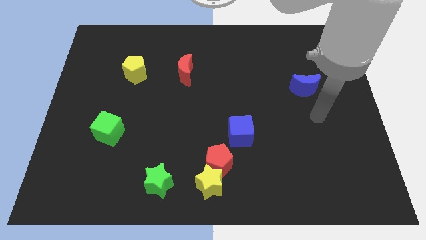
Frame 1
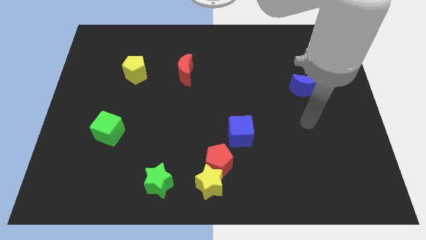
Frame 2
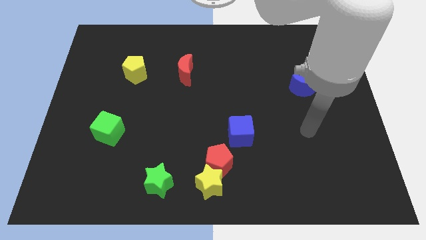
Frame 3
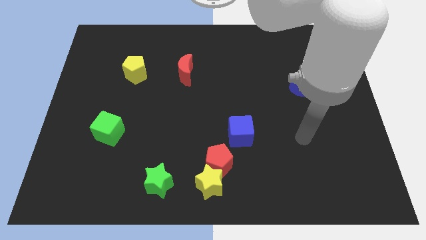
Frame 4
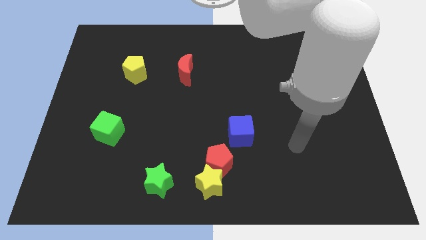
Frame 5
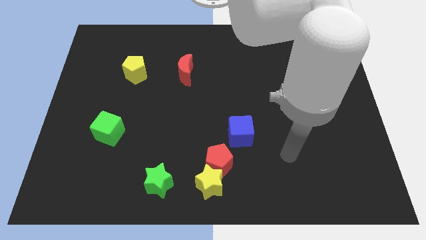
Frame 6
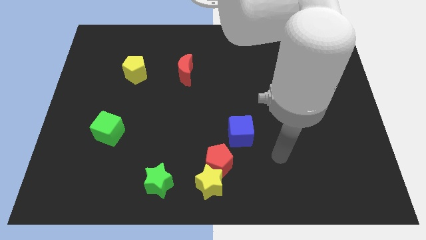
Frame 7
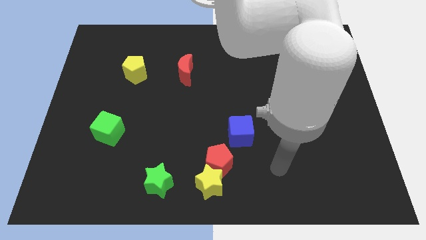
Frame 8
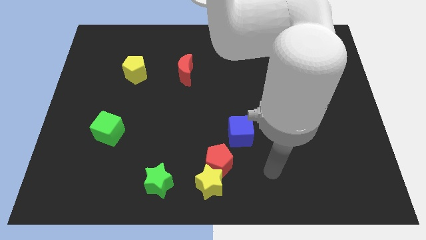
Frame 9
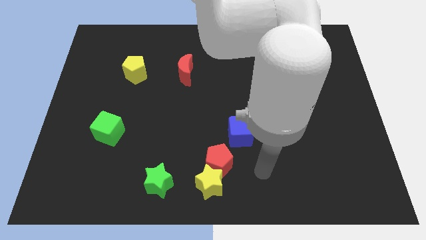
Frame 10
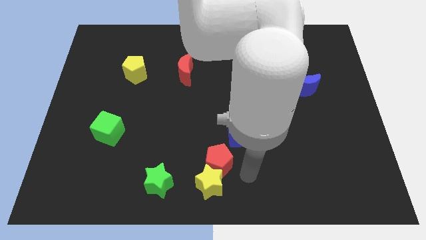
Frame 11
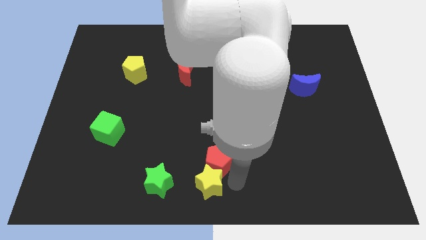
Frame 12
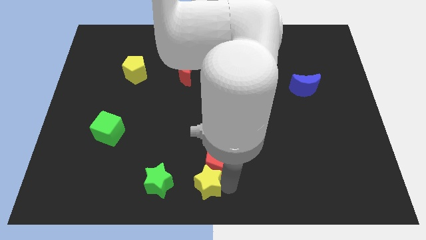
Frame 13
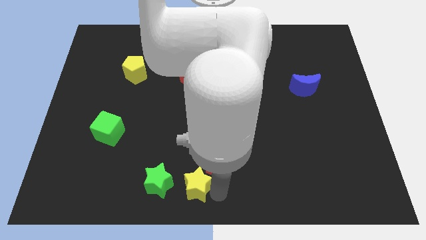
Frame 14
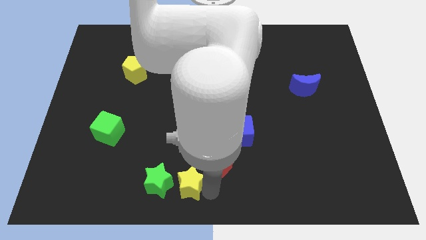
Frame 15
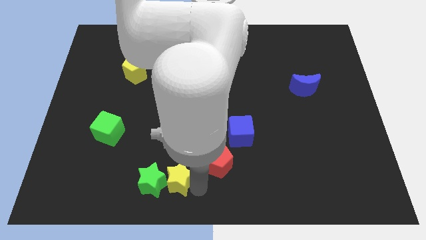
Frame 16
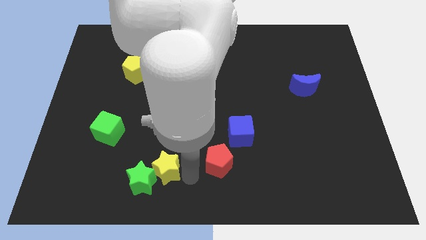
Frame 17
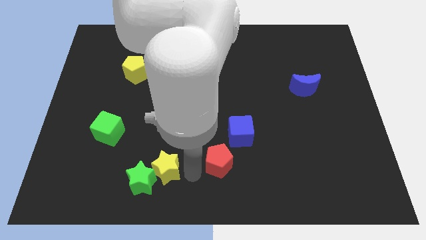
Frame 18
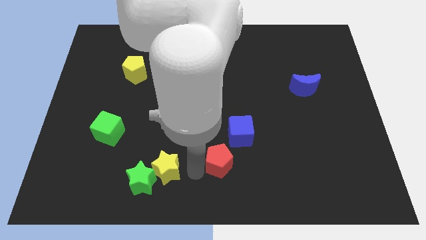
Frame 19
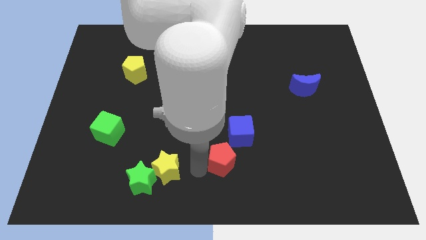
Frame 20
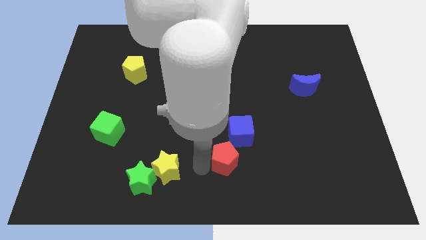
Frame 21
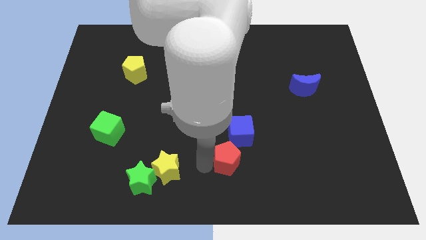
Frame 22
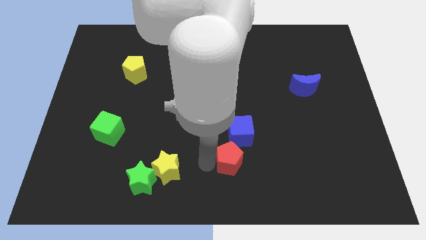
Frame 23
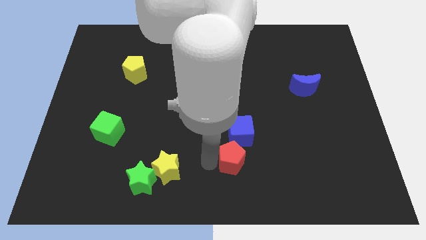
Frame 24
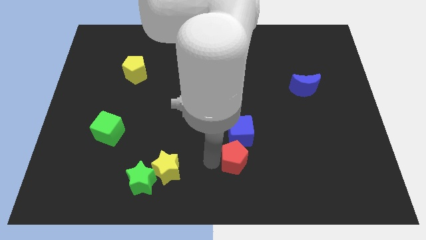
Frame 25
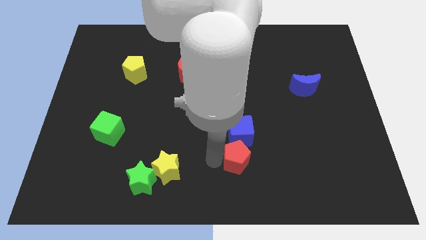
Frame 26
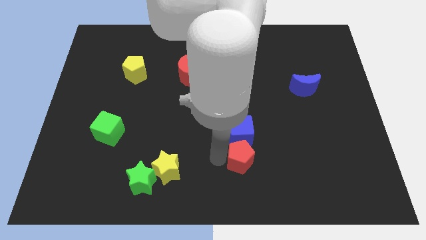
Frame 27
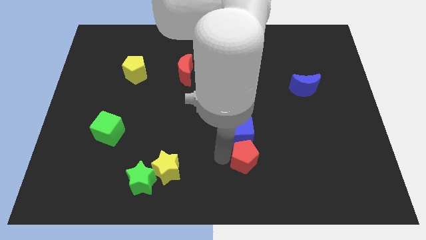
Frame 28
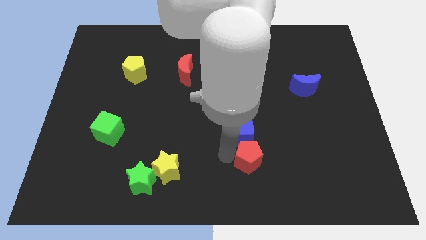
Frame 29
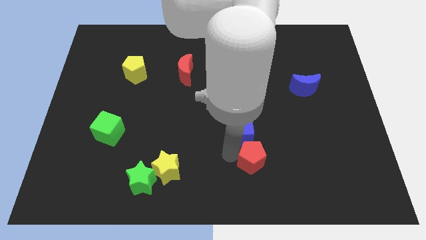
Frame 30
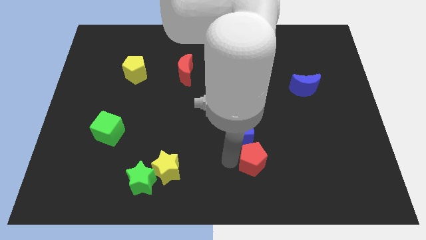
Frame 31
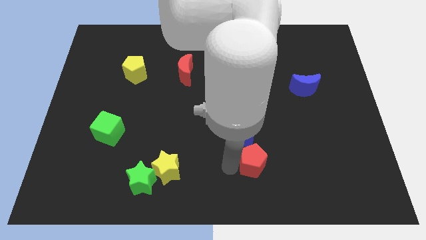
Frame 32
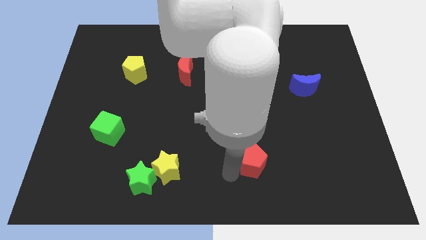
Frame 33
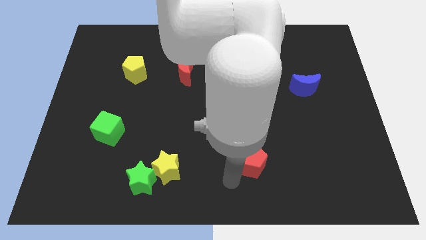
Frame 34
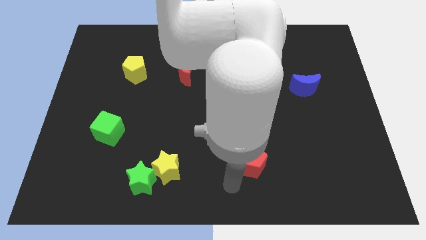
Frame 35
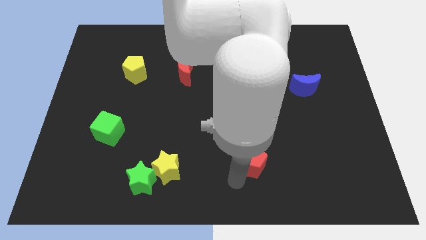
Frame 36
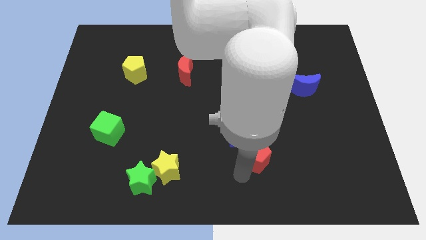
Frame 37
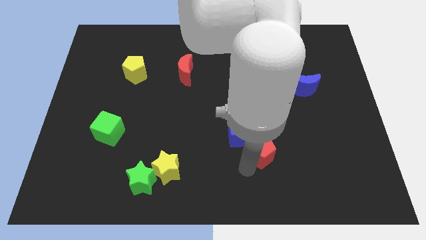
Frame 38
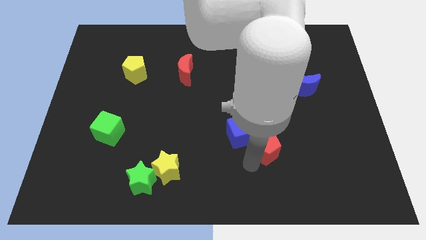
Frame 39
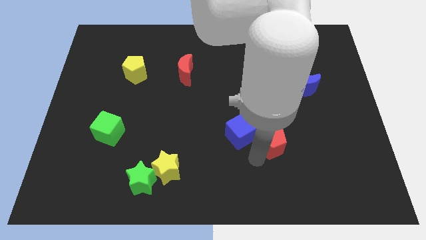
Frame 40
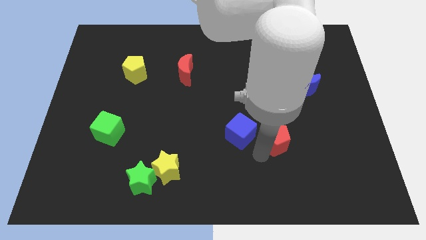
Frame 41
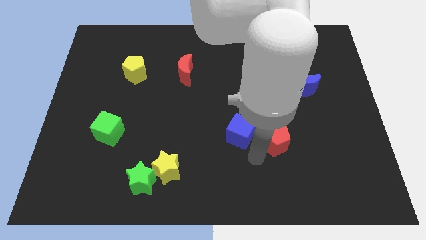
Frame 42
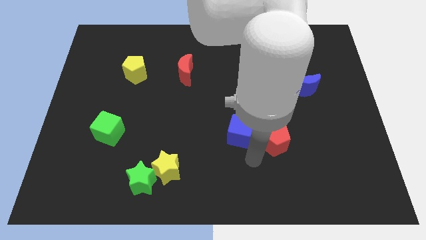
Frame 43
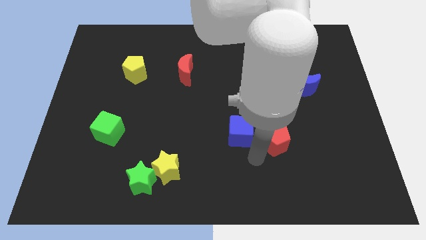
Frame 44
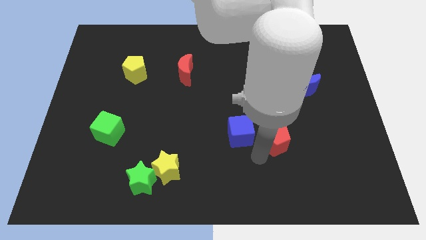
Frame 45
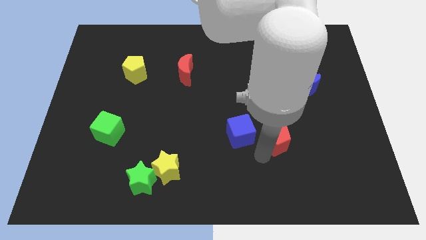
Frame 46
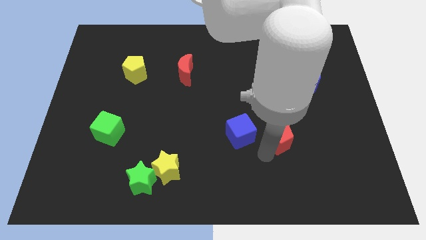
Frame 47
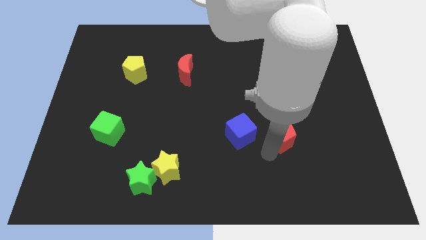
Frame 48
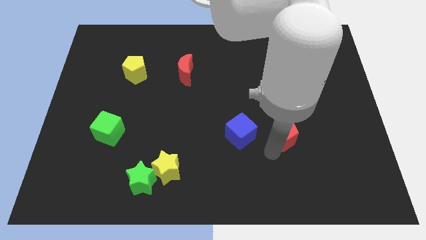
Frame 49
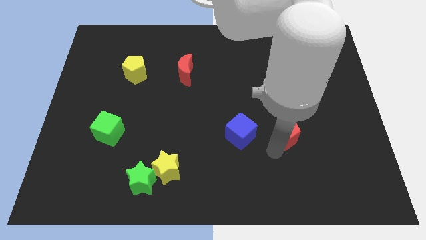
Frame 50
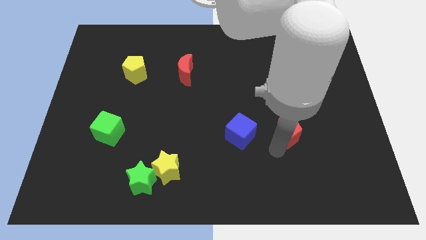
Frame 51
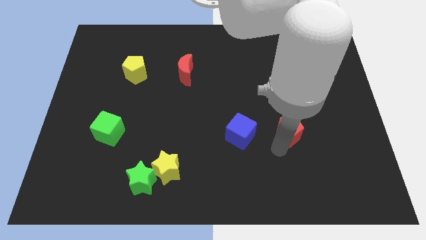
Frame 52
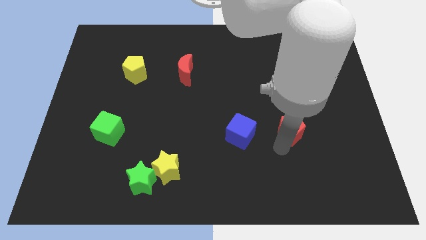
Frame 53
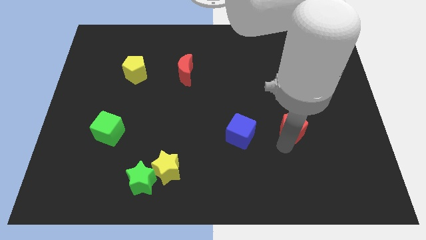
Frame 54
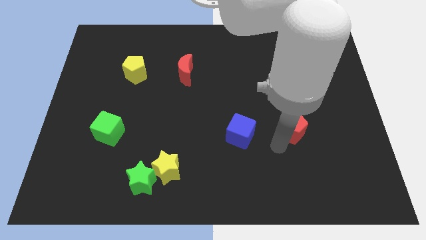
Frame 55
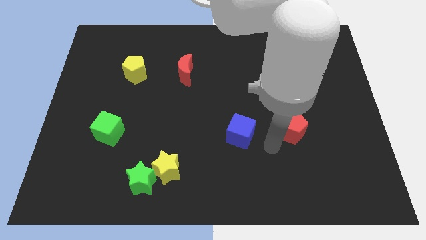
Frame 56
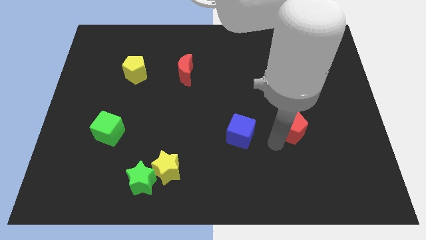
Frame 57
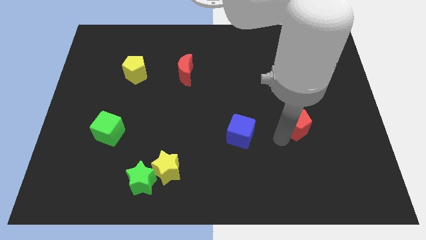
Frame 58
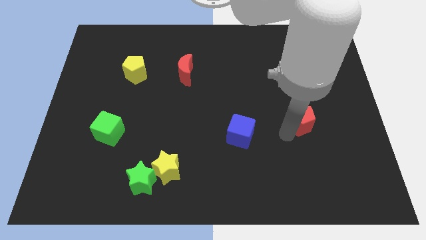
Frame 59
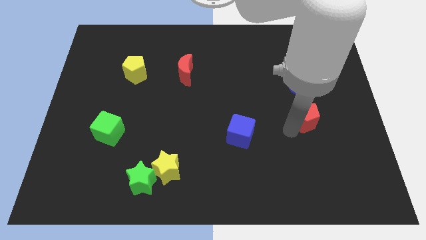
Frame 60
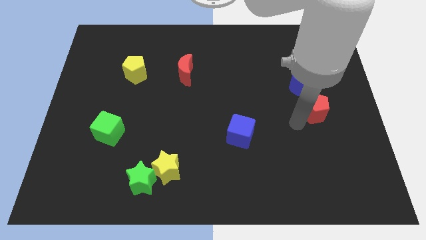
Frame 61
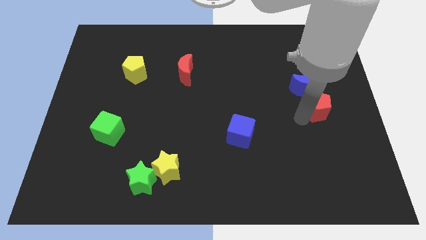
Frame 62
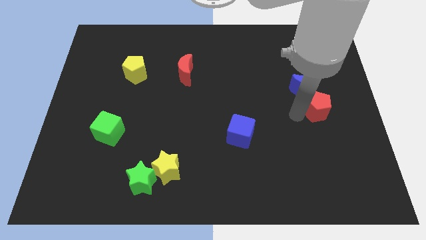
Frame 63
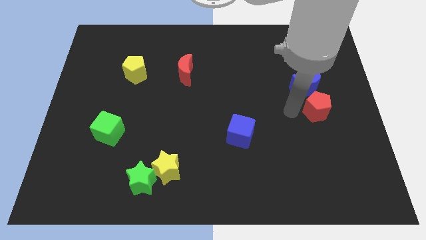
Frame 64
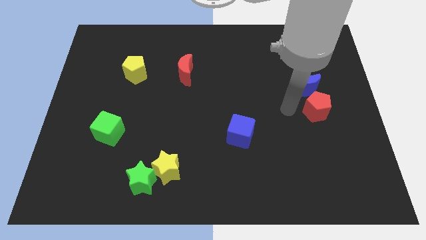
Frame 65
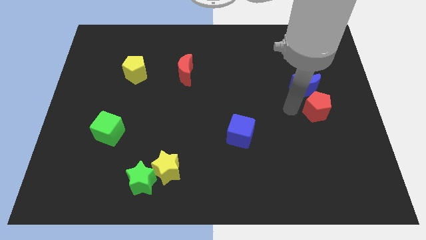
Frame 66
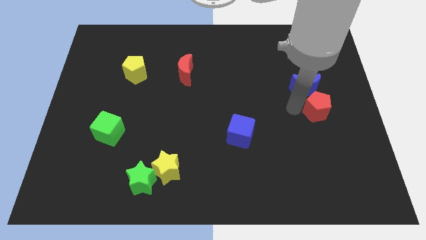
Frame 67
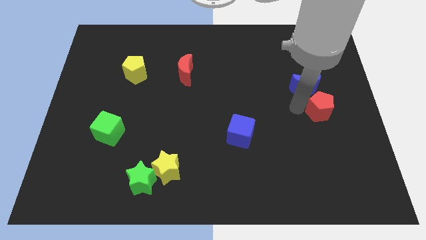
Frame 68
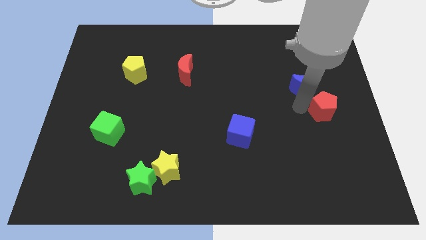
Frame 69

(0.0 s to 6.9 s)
slide the red pentagon to the center right

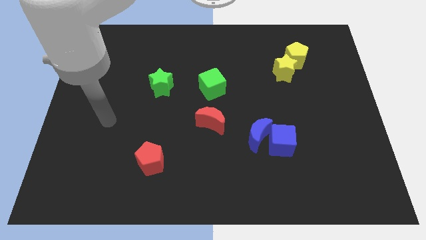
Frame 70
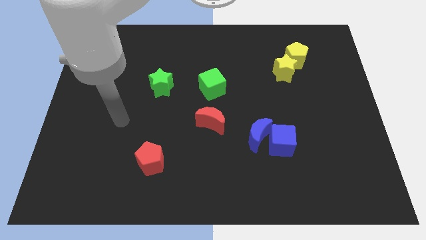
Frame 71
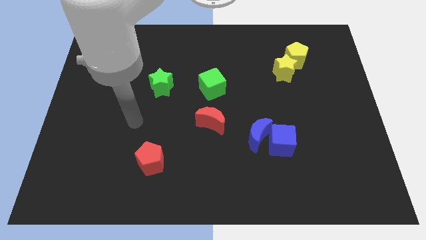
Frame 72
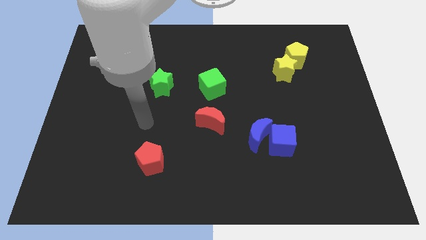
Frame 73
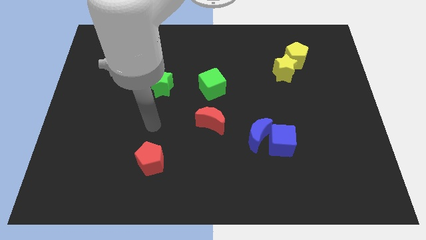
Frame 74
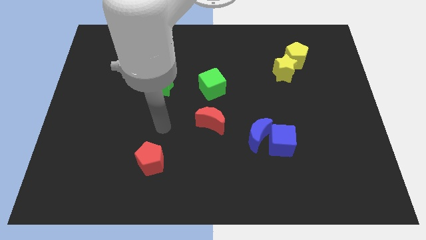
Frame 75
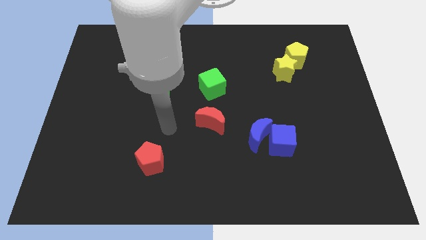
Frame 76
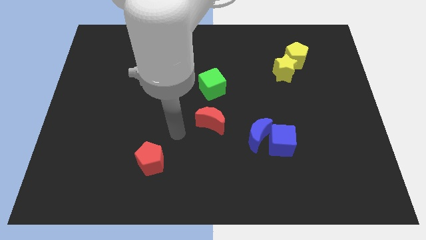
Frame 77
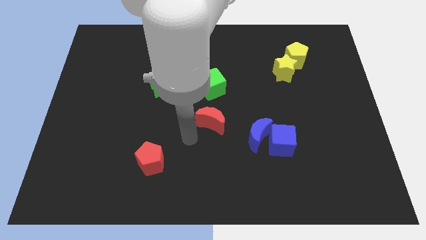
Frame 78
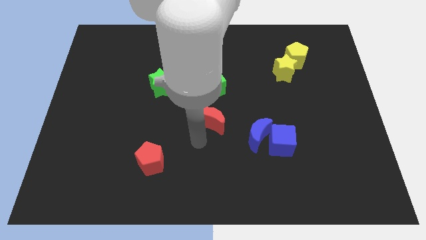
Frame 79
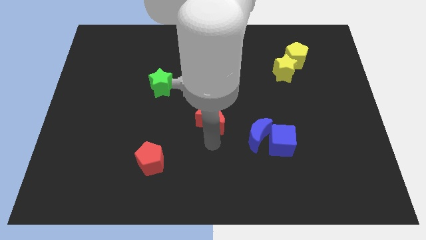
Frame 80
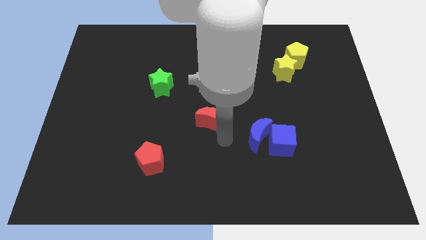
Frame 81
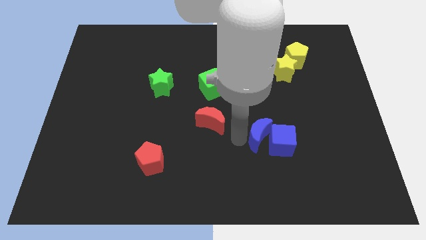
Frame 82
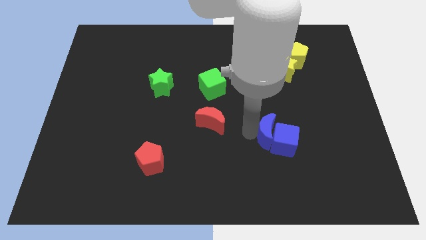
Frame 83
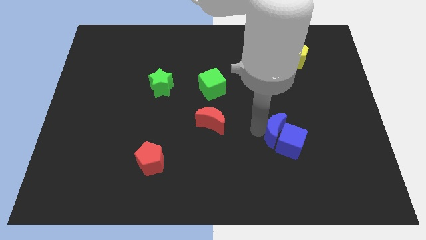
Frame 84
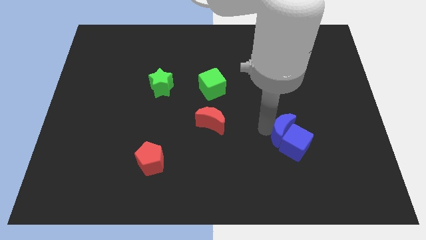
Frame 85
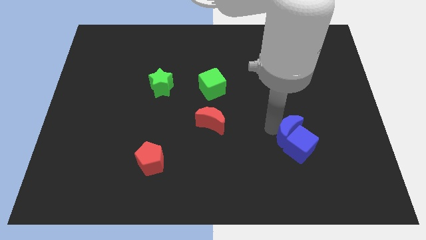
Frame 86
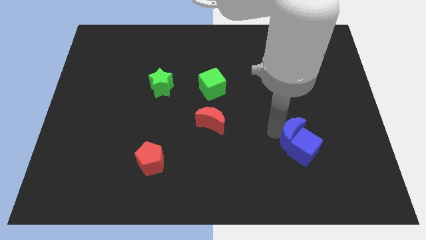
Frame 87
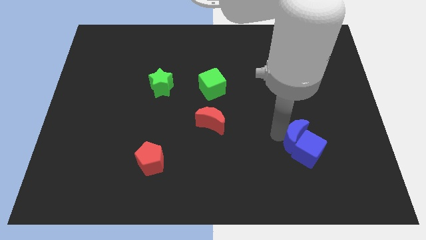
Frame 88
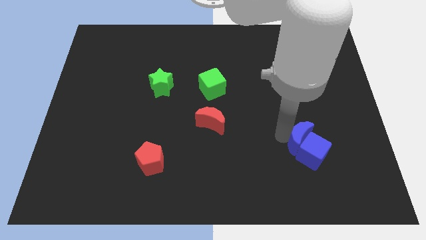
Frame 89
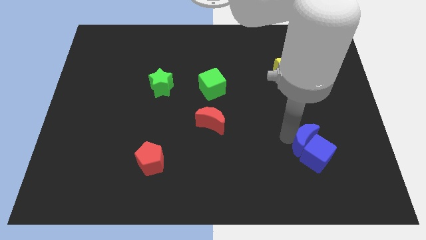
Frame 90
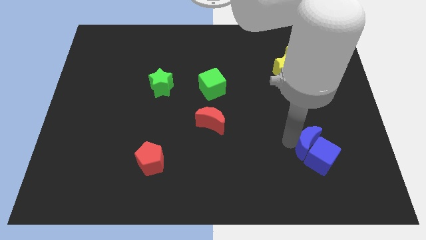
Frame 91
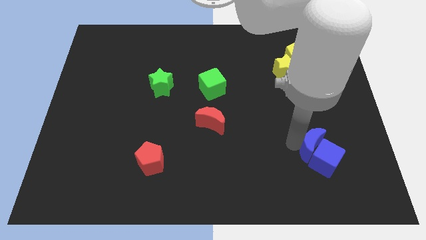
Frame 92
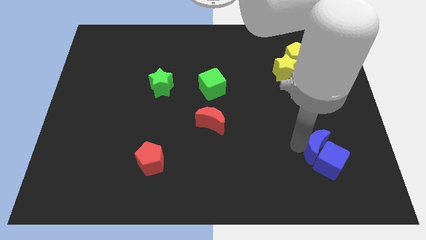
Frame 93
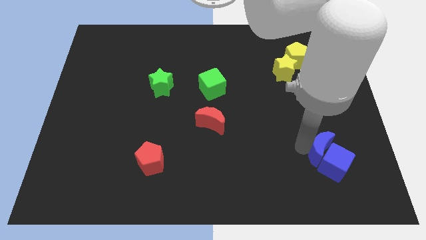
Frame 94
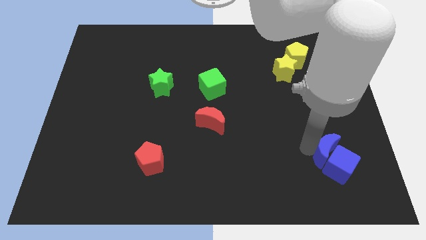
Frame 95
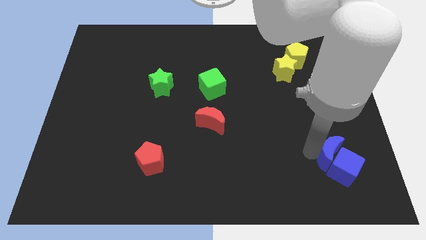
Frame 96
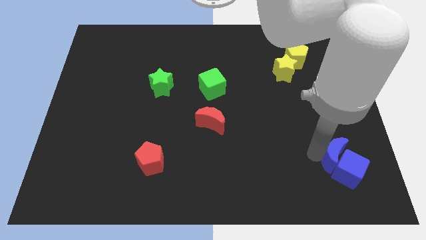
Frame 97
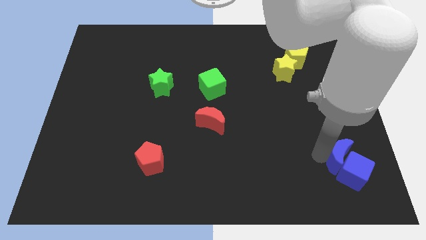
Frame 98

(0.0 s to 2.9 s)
put the blue cube to the bottom right of the board
